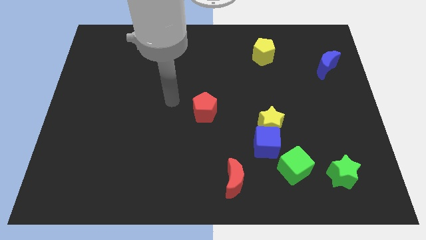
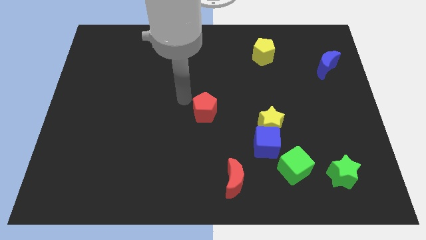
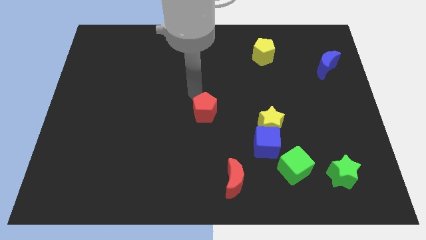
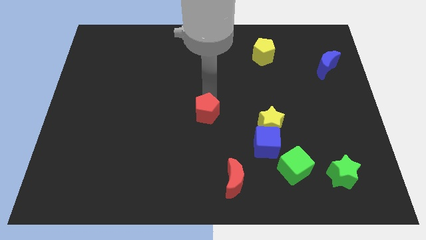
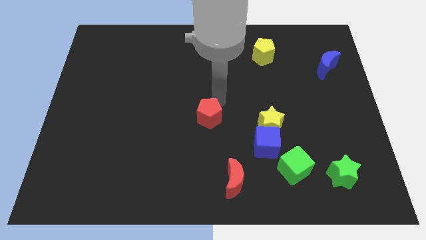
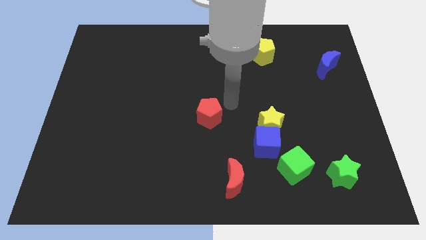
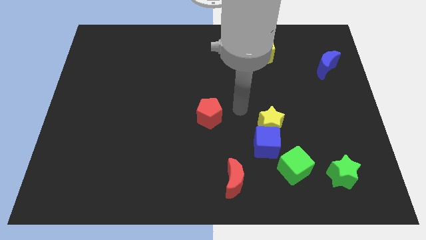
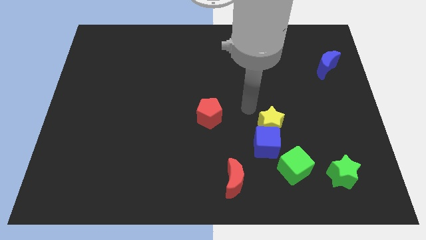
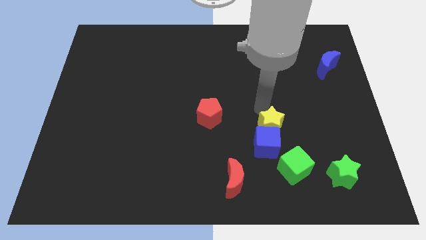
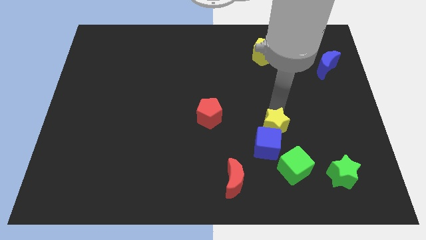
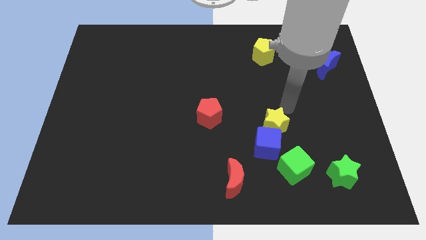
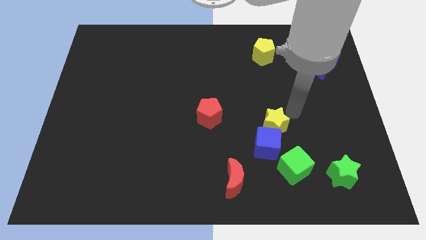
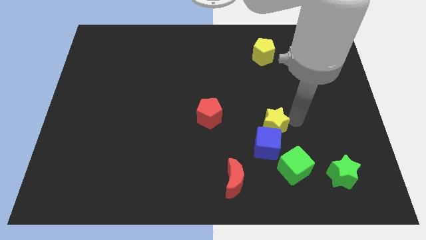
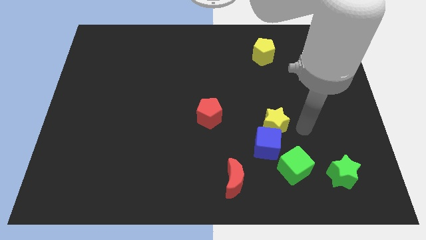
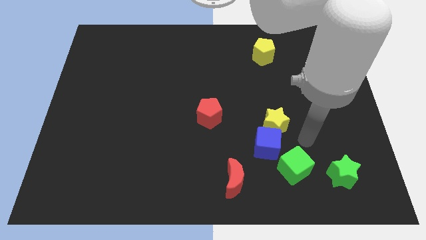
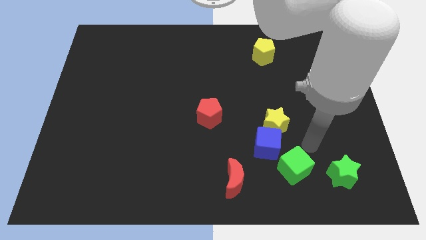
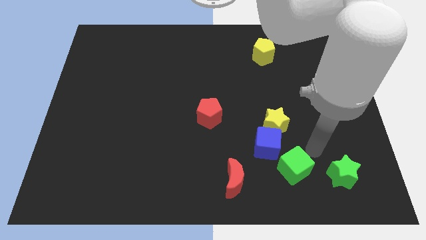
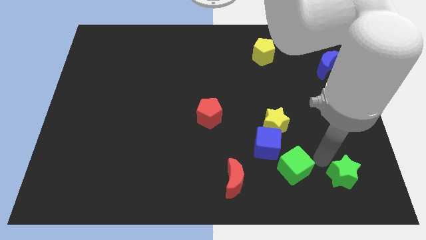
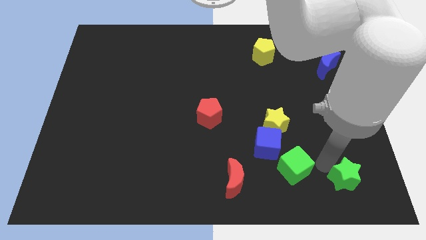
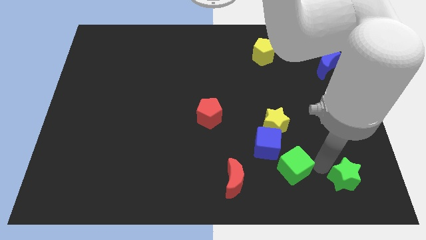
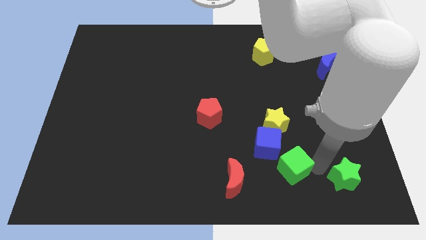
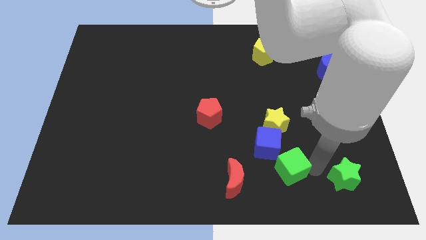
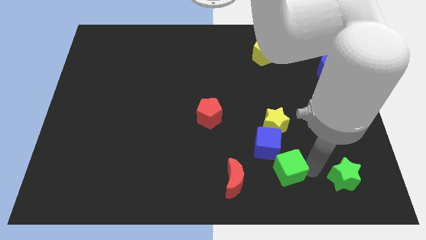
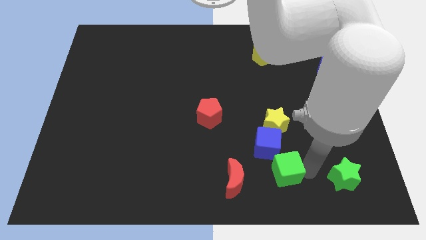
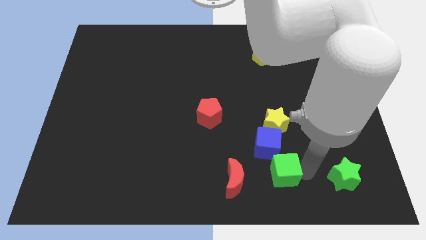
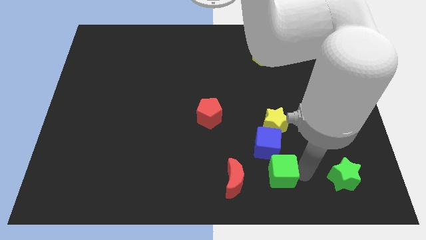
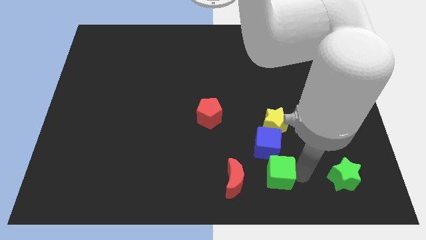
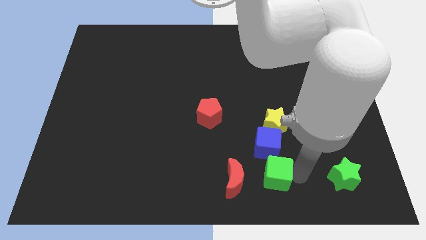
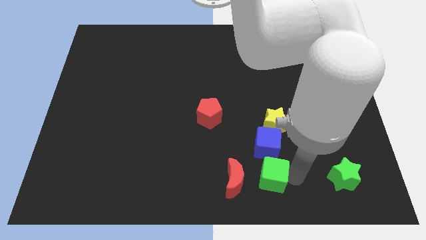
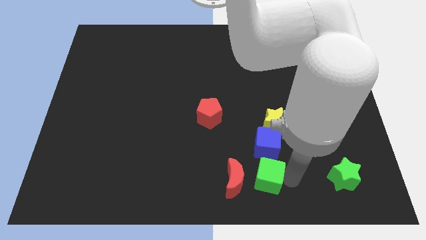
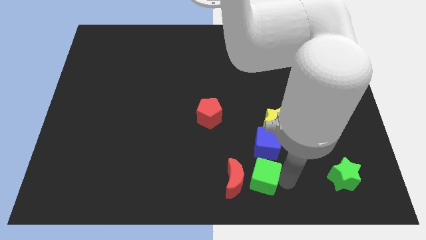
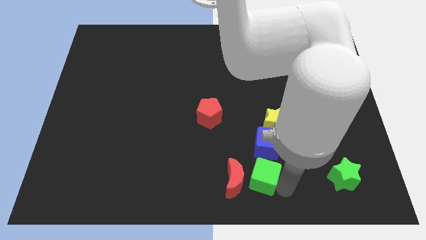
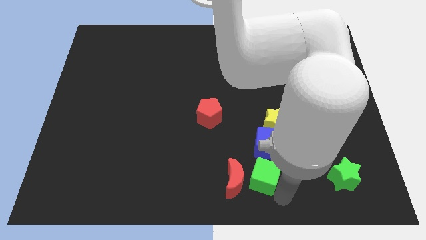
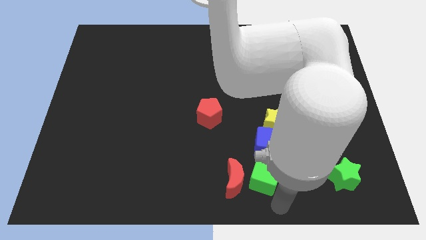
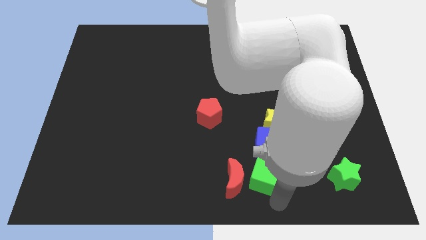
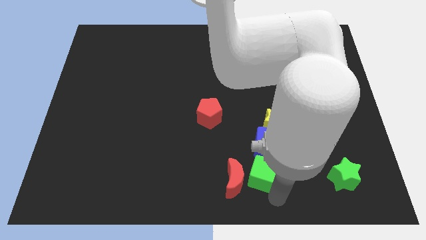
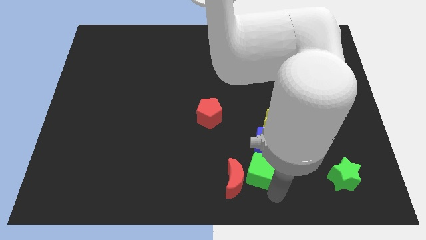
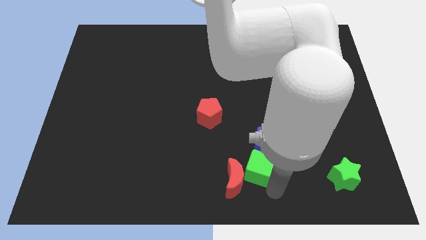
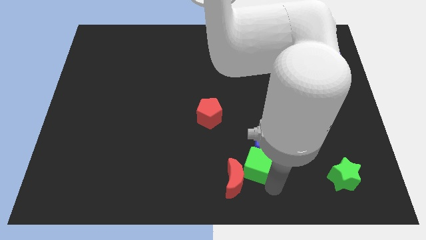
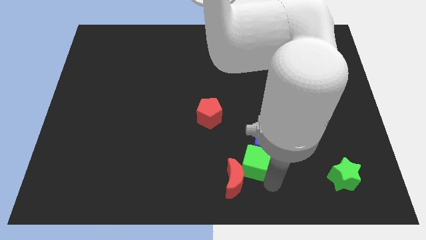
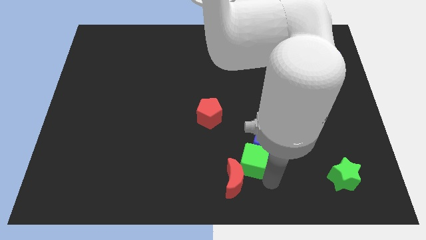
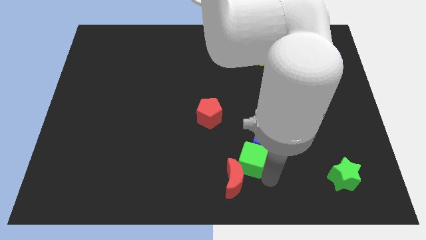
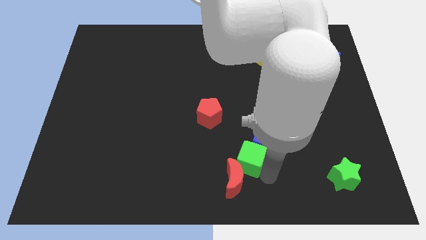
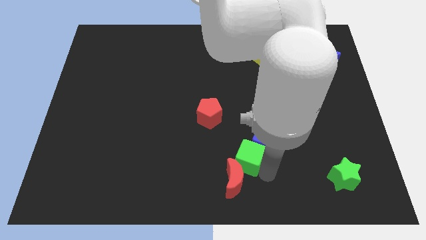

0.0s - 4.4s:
slide the green cube diagonally up and to the left somewhat

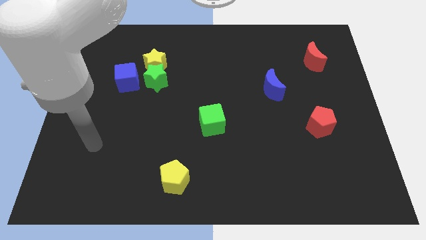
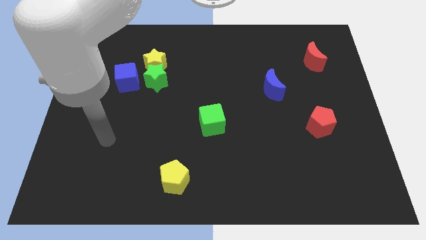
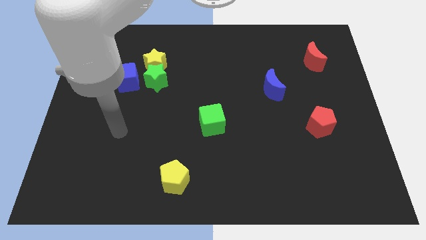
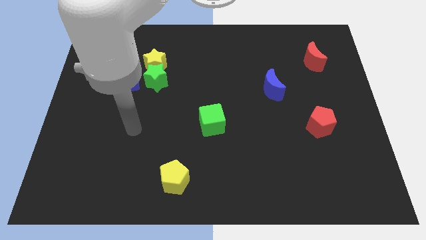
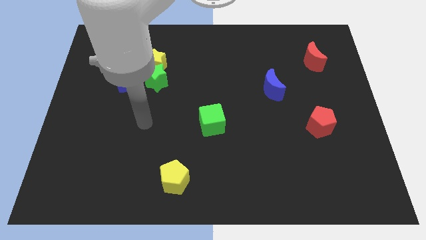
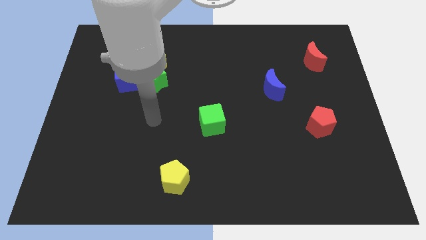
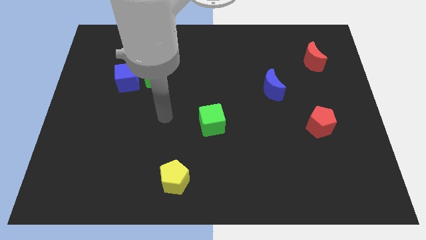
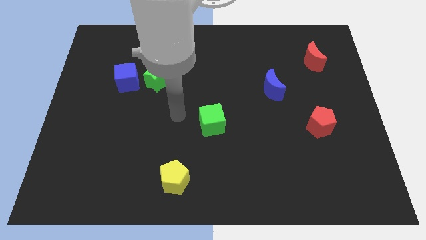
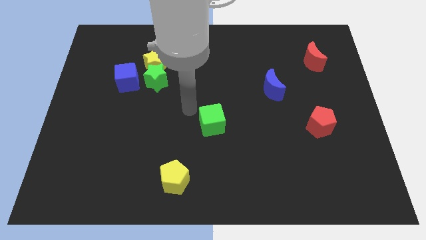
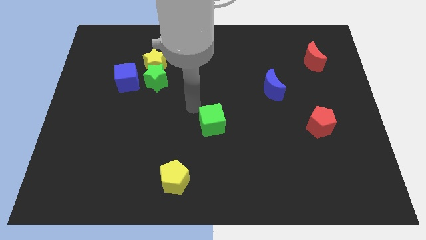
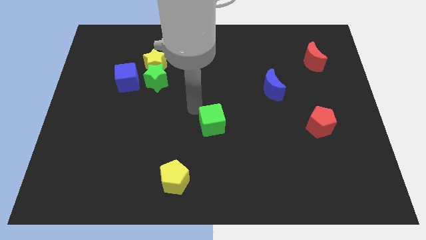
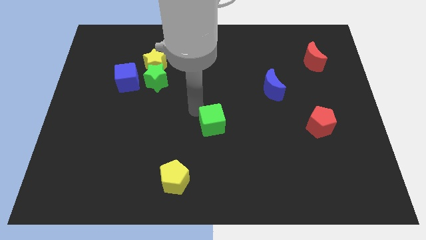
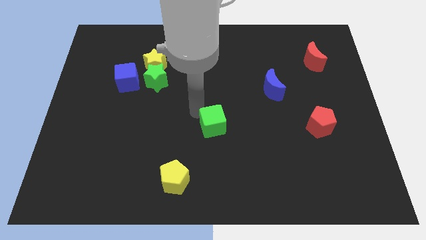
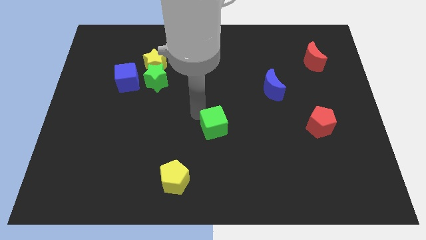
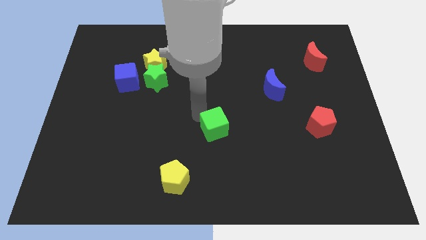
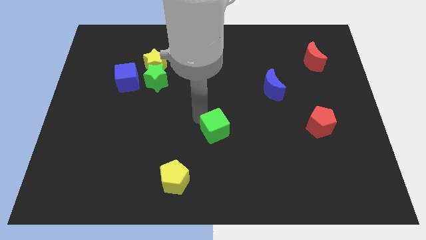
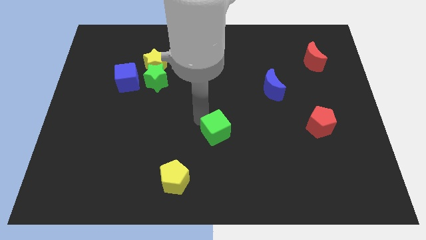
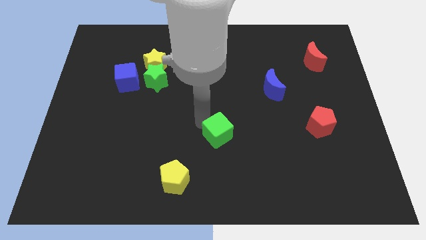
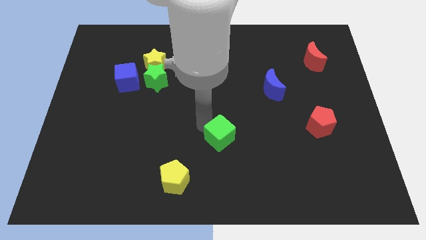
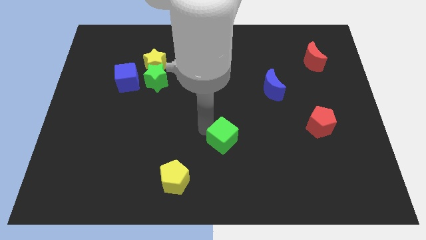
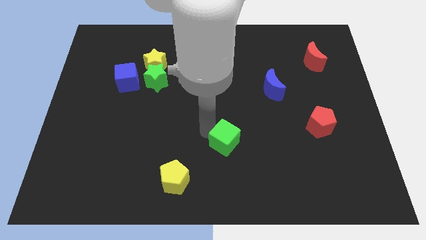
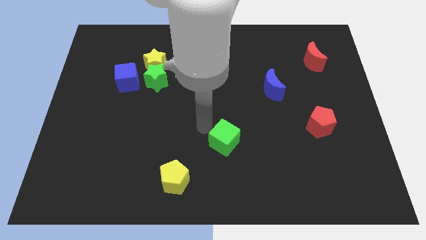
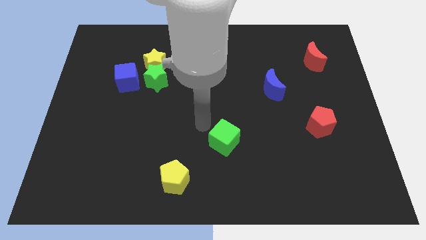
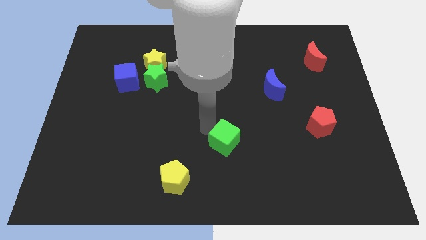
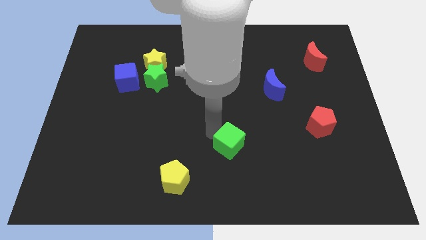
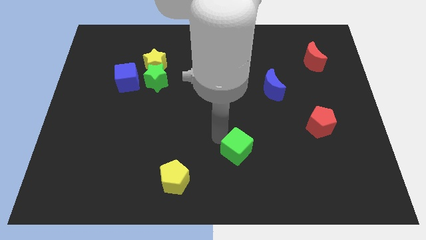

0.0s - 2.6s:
slide the green cube slightly downwards and then to the right

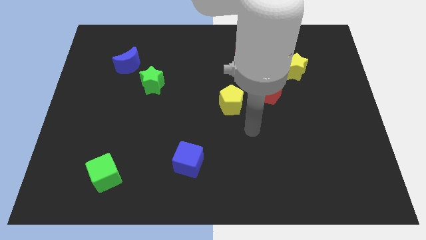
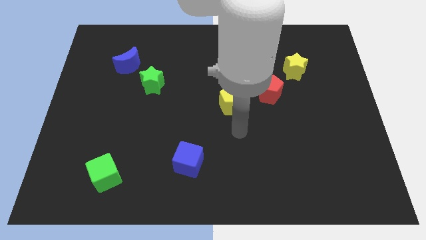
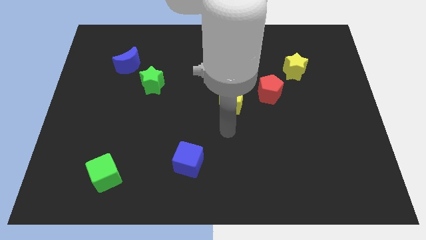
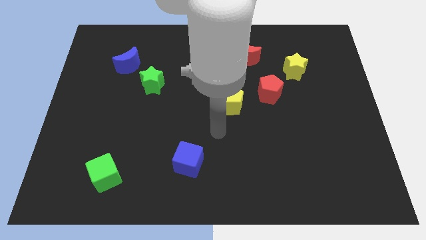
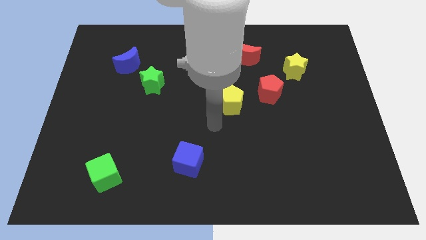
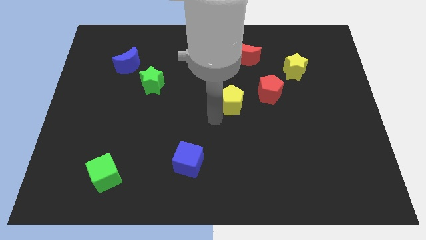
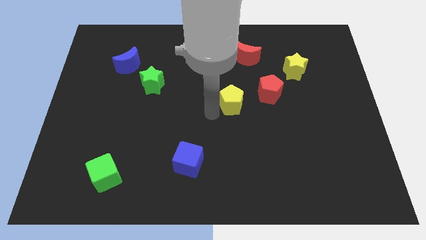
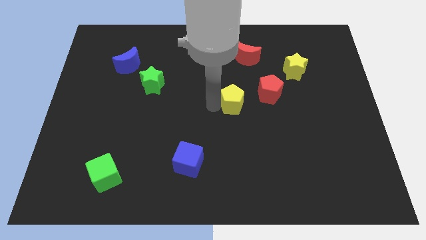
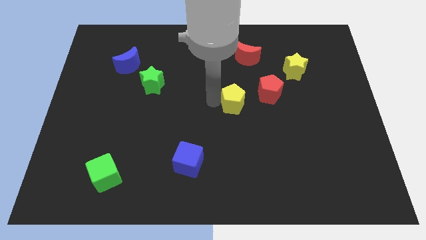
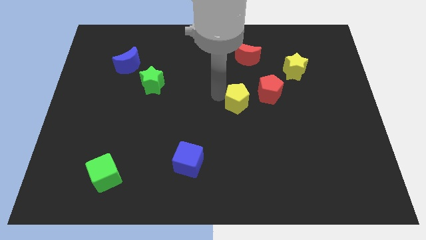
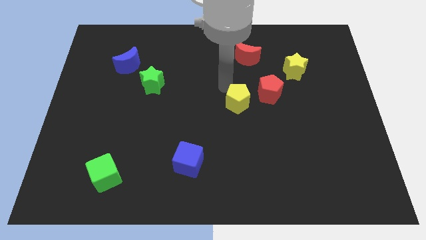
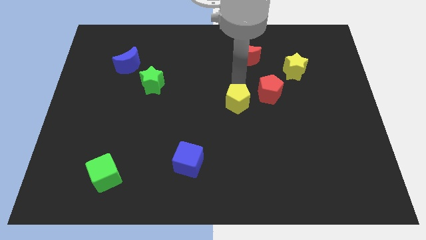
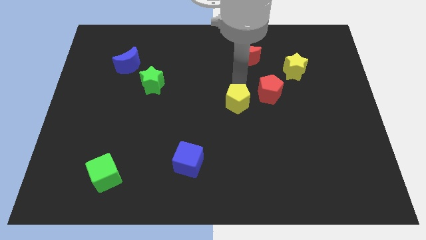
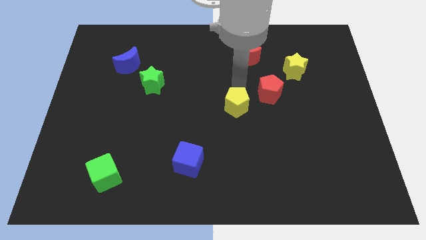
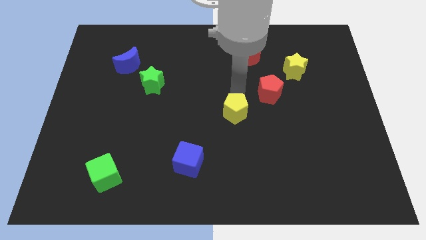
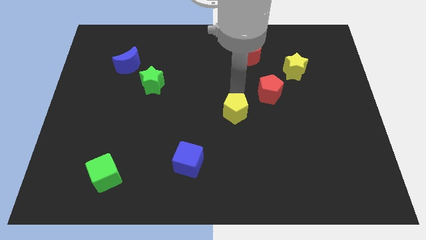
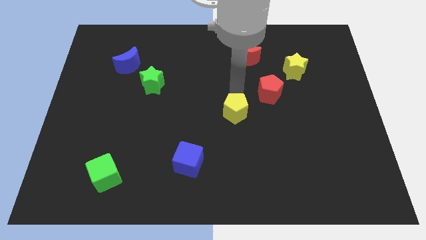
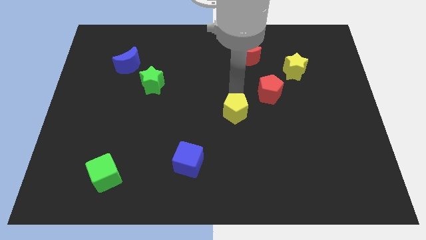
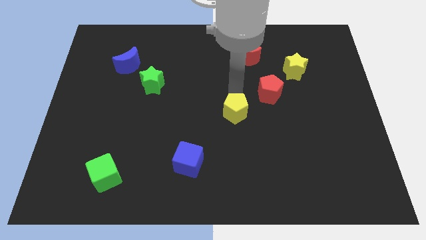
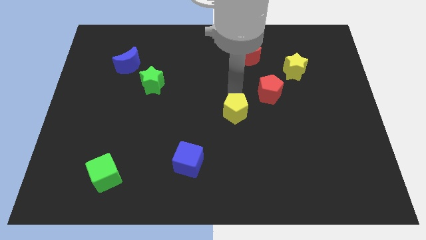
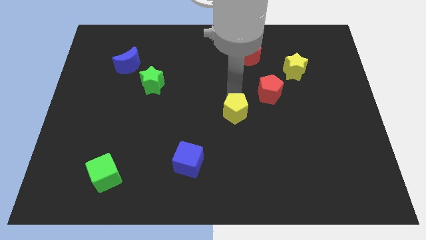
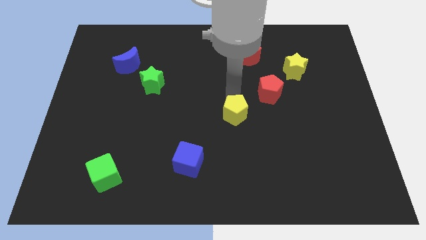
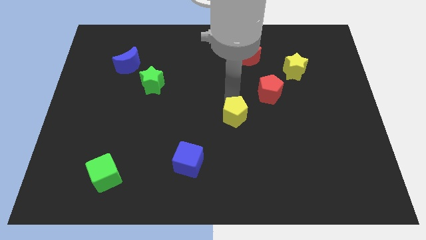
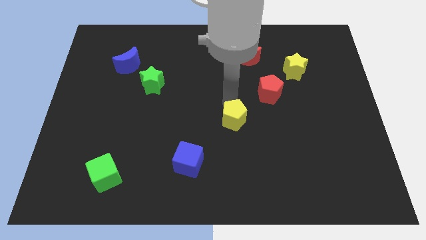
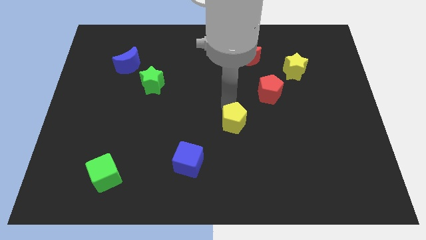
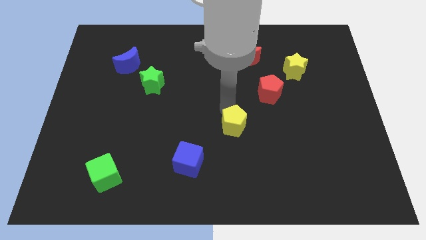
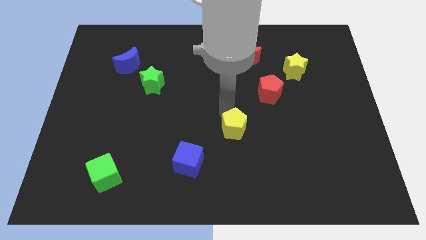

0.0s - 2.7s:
slightly push the yellow pentagon downwards
